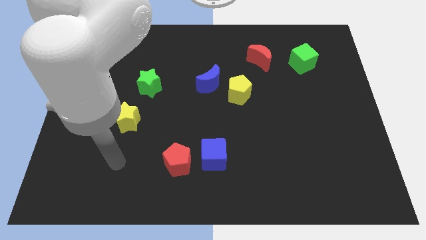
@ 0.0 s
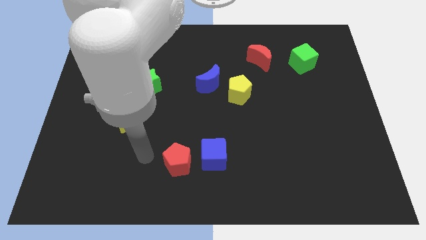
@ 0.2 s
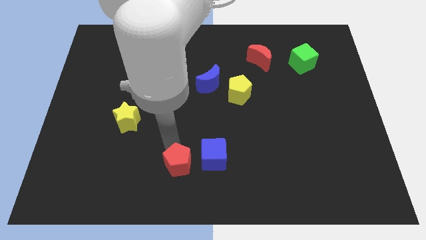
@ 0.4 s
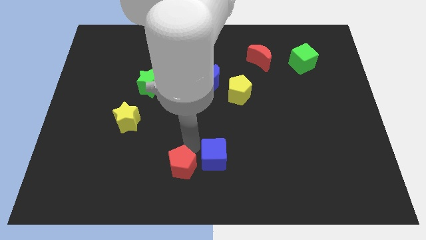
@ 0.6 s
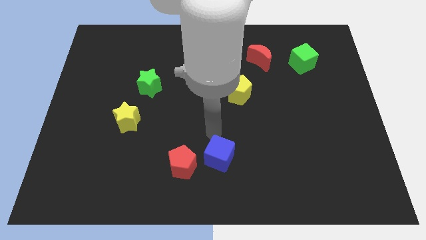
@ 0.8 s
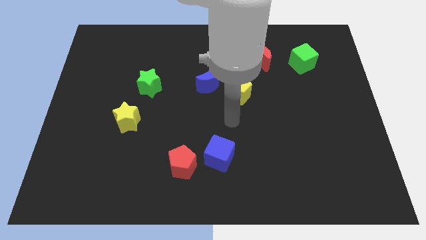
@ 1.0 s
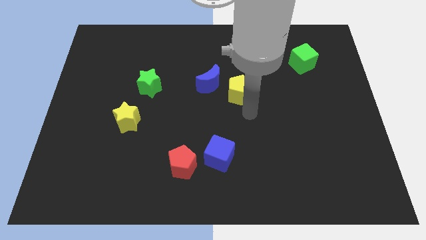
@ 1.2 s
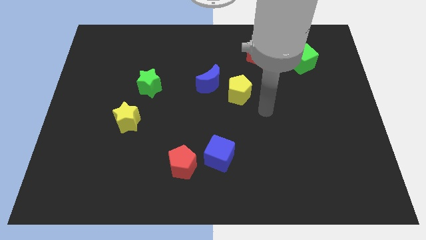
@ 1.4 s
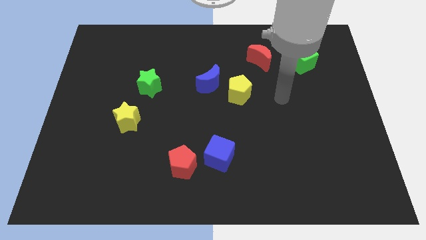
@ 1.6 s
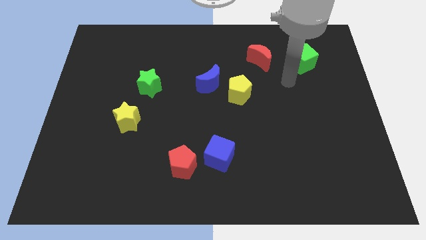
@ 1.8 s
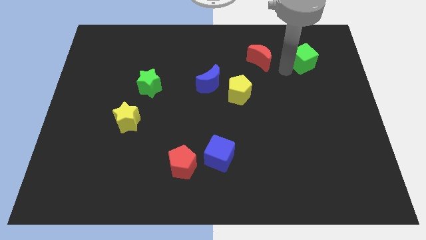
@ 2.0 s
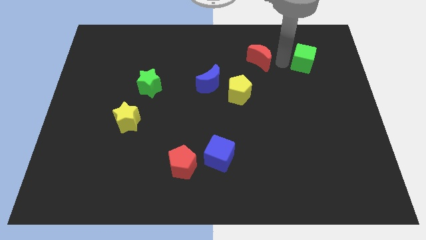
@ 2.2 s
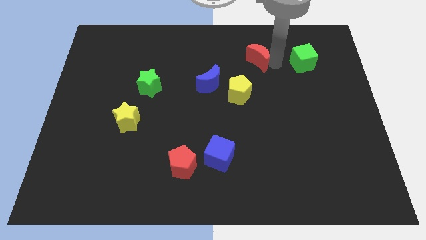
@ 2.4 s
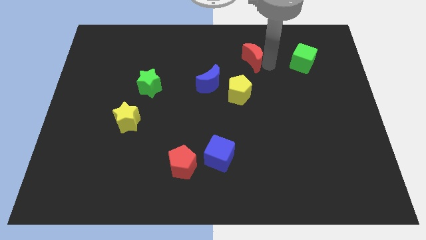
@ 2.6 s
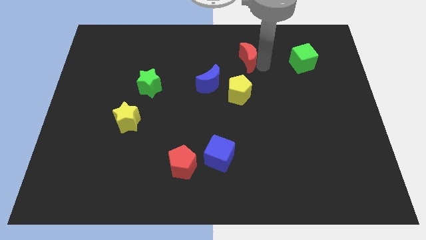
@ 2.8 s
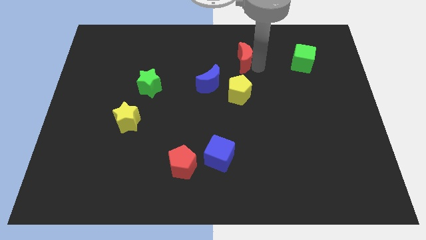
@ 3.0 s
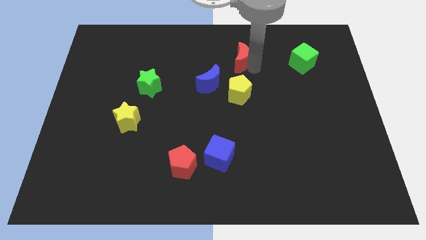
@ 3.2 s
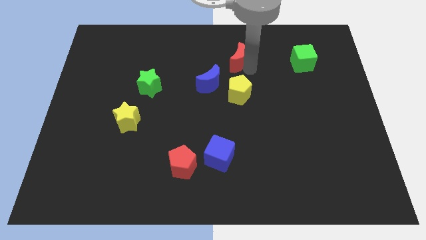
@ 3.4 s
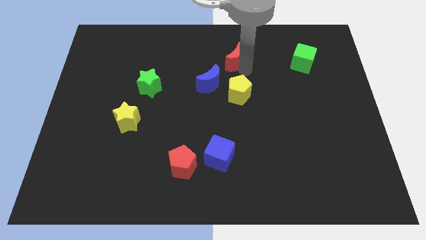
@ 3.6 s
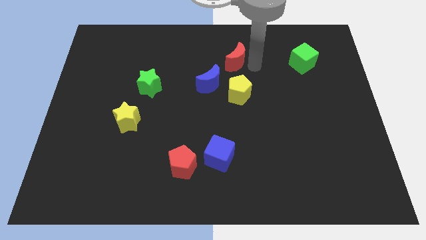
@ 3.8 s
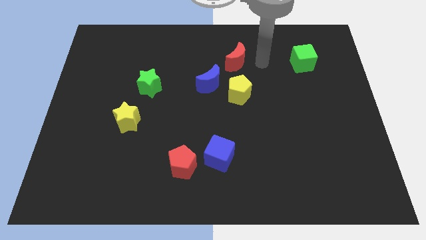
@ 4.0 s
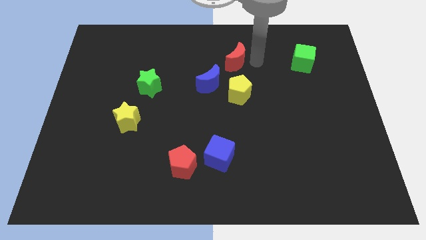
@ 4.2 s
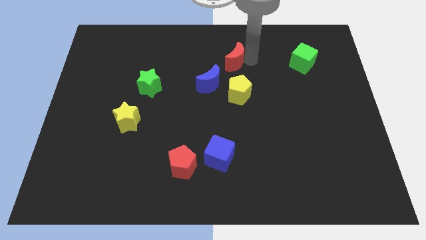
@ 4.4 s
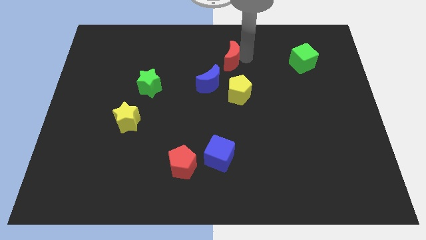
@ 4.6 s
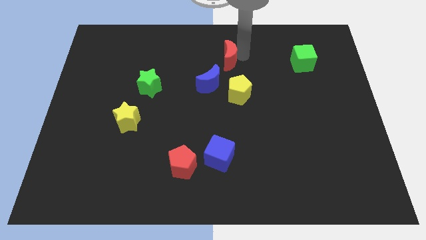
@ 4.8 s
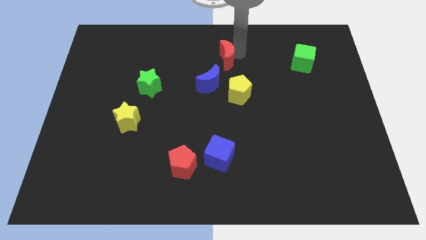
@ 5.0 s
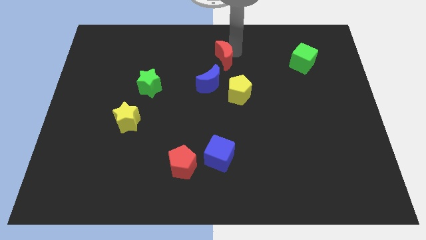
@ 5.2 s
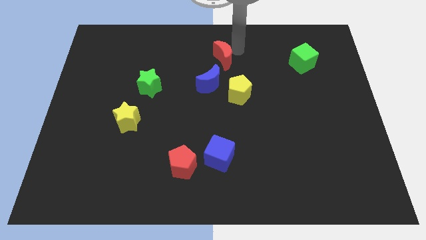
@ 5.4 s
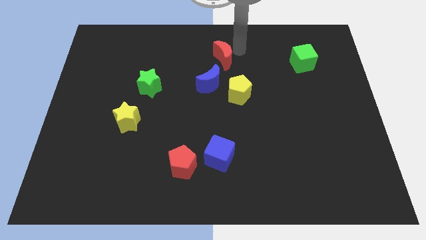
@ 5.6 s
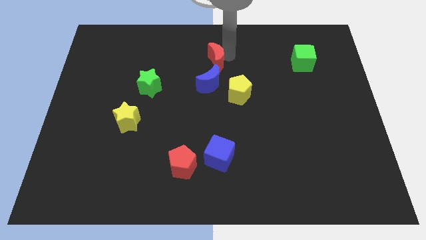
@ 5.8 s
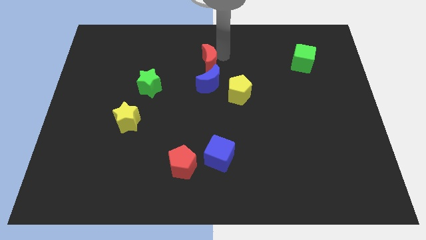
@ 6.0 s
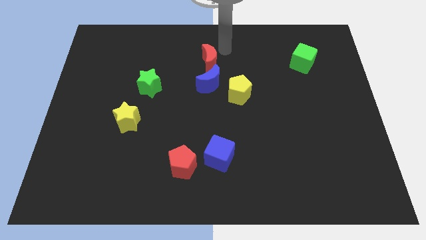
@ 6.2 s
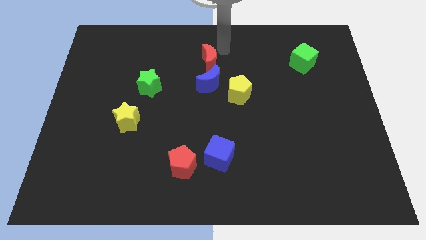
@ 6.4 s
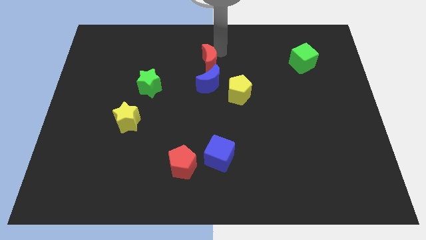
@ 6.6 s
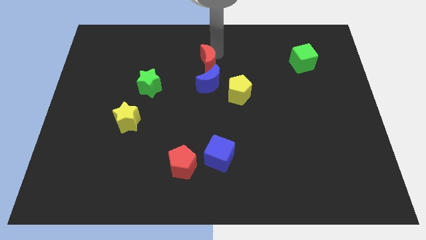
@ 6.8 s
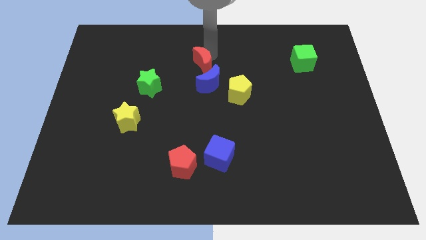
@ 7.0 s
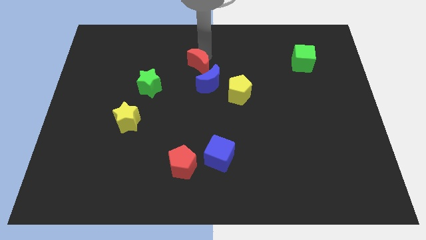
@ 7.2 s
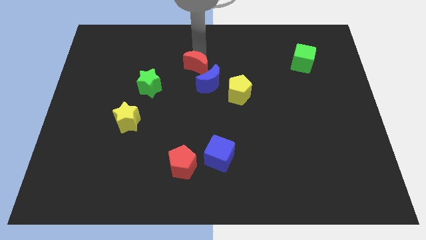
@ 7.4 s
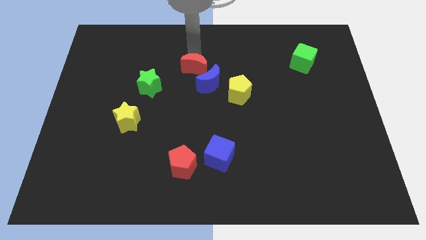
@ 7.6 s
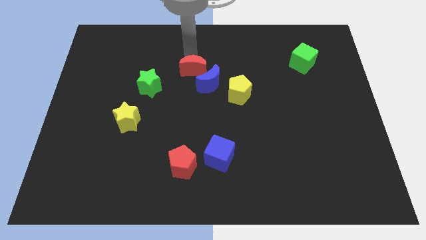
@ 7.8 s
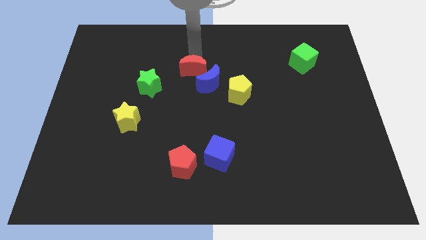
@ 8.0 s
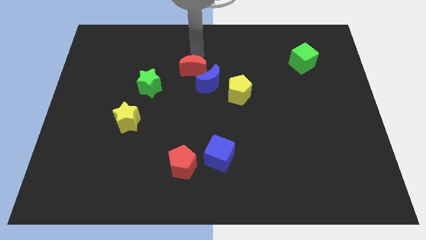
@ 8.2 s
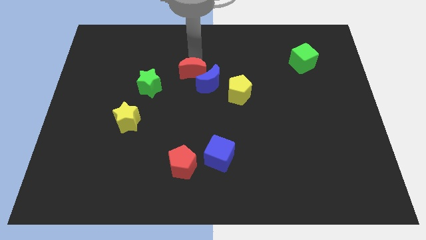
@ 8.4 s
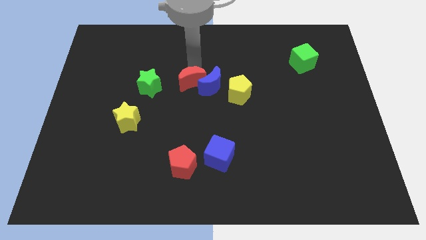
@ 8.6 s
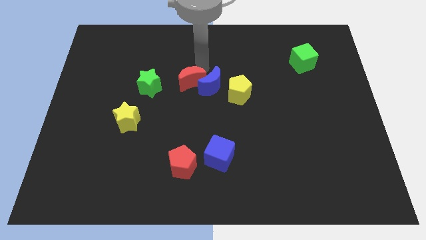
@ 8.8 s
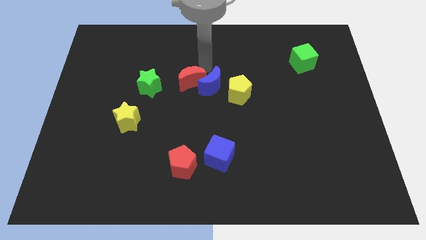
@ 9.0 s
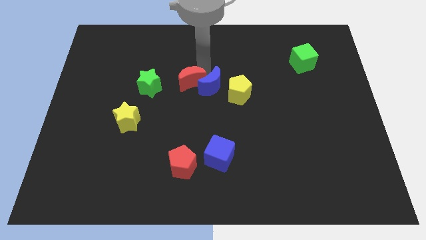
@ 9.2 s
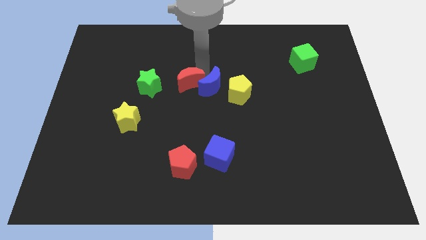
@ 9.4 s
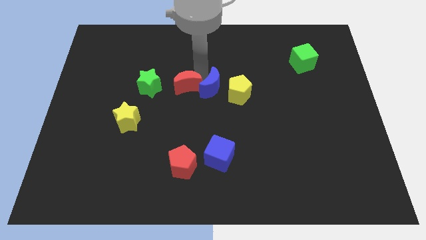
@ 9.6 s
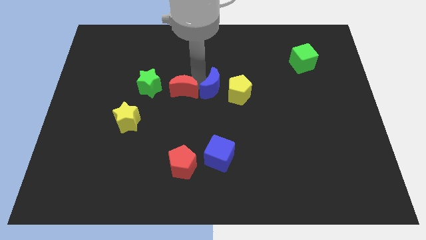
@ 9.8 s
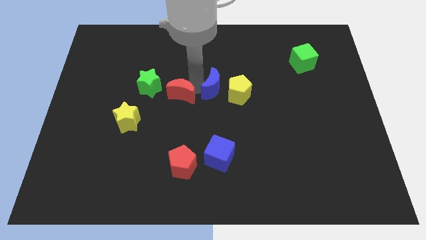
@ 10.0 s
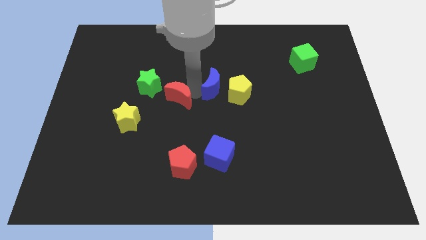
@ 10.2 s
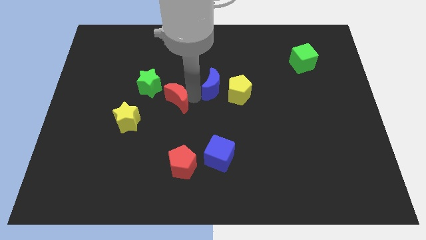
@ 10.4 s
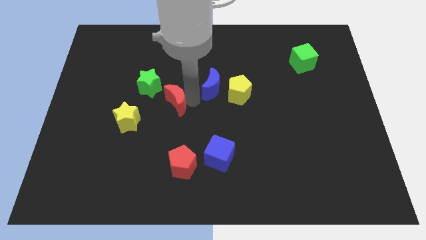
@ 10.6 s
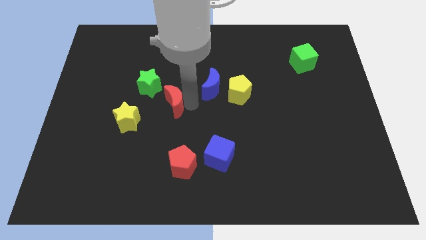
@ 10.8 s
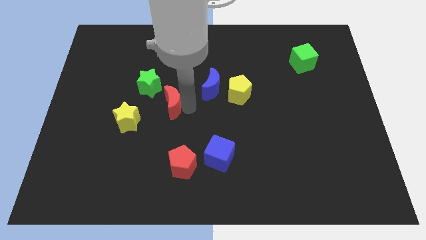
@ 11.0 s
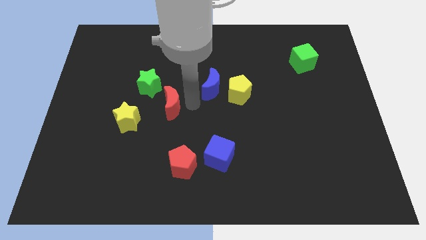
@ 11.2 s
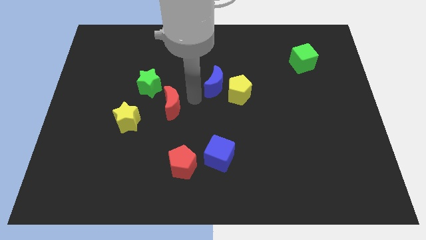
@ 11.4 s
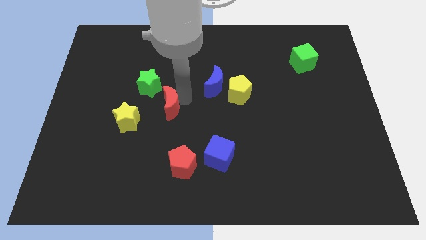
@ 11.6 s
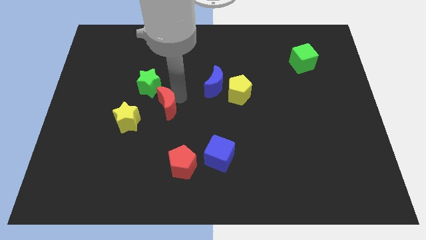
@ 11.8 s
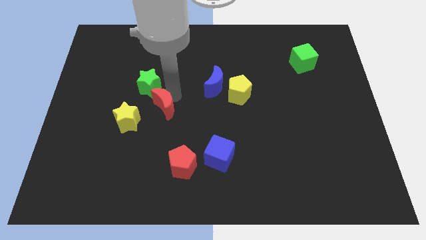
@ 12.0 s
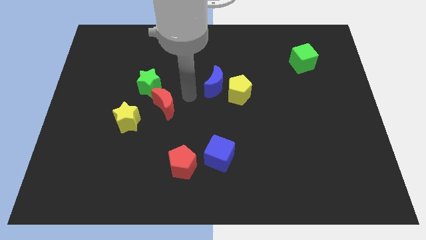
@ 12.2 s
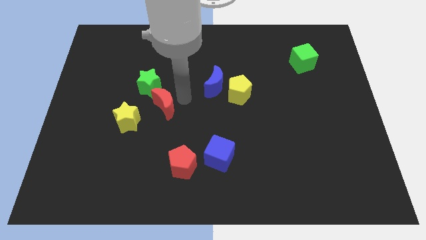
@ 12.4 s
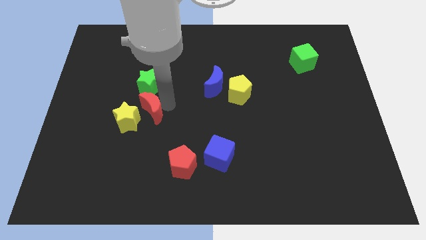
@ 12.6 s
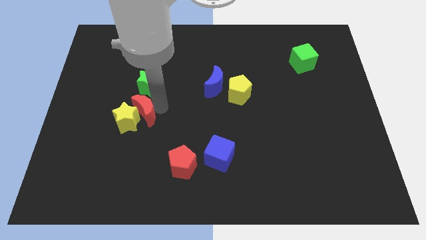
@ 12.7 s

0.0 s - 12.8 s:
move the red moon close to the yellow star

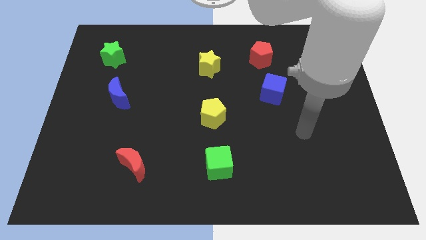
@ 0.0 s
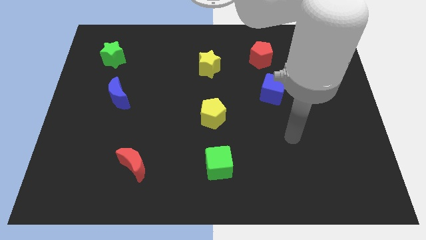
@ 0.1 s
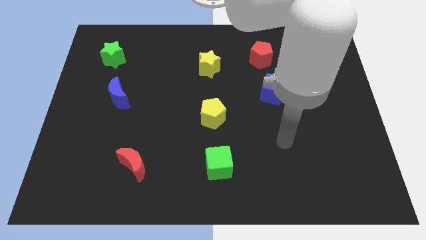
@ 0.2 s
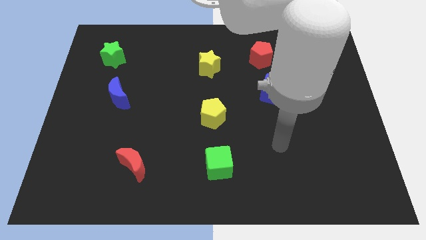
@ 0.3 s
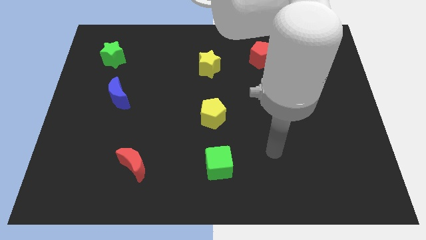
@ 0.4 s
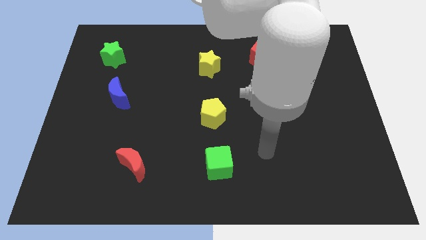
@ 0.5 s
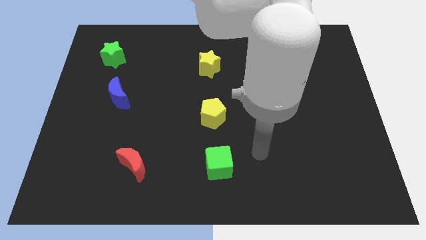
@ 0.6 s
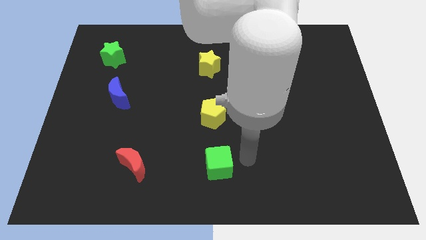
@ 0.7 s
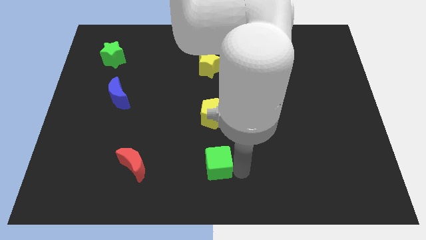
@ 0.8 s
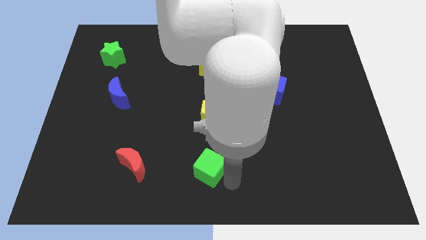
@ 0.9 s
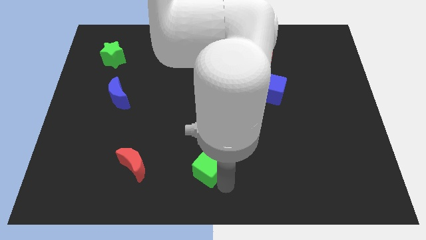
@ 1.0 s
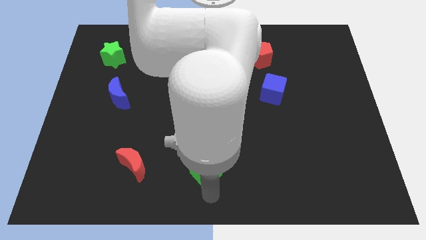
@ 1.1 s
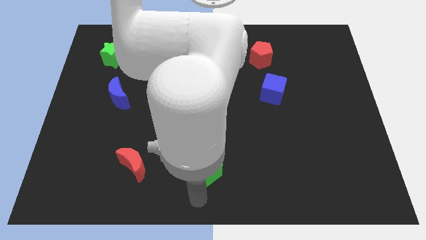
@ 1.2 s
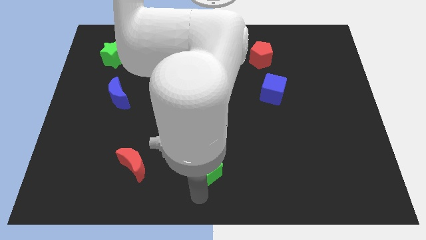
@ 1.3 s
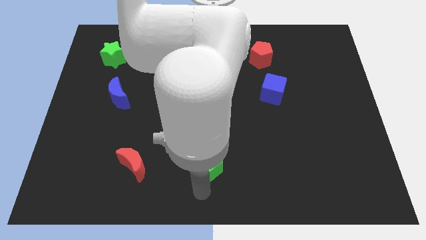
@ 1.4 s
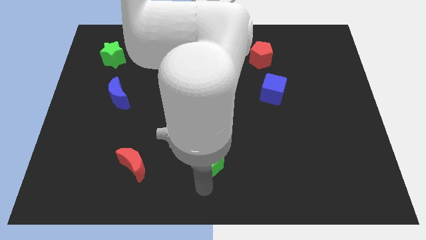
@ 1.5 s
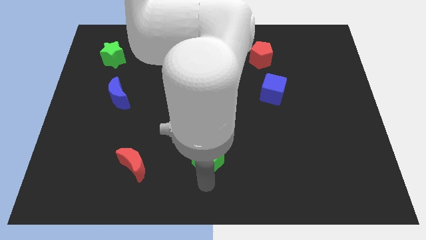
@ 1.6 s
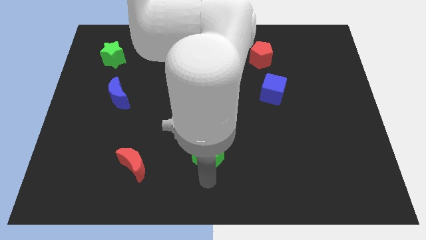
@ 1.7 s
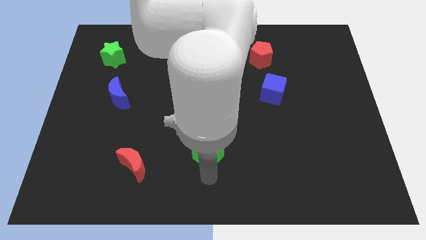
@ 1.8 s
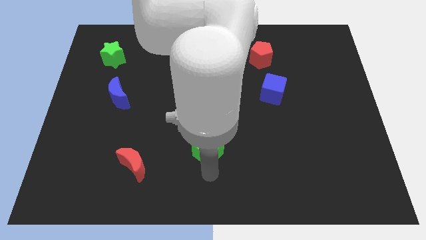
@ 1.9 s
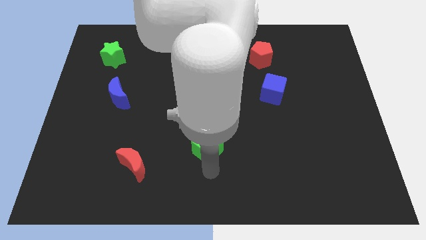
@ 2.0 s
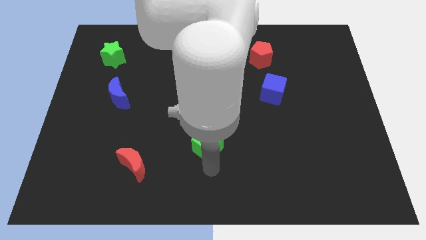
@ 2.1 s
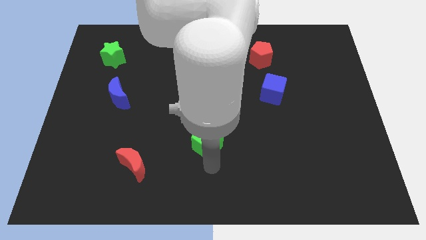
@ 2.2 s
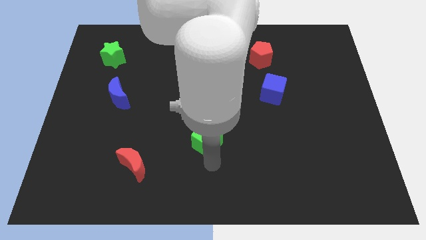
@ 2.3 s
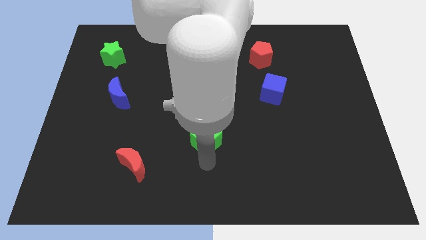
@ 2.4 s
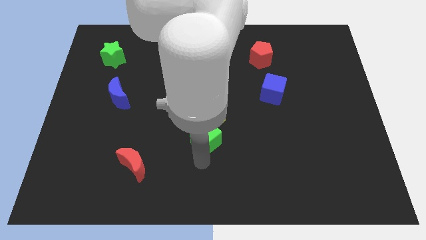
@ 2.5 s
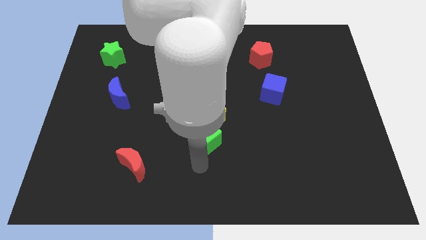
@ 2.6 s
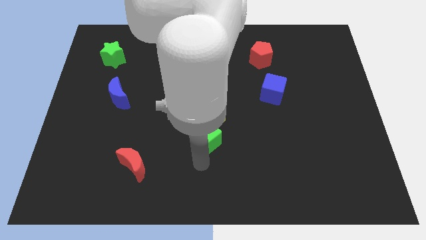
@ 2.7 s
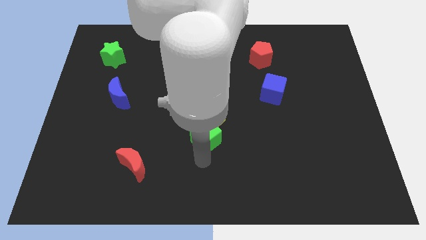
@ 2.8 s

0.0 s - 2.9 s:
push the green cube towards the yellow pentagon
